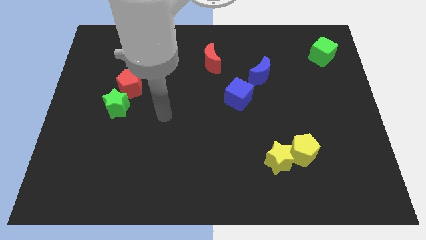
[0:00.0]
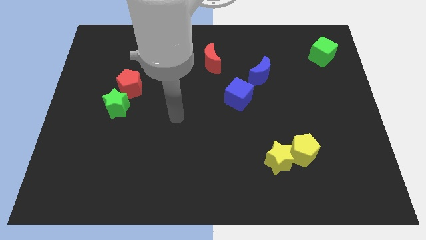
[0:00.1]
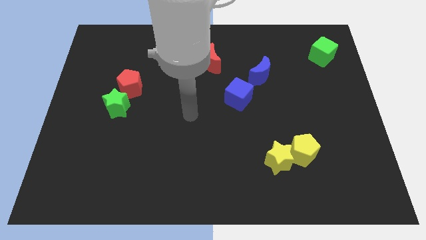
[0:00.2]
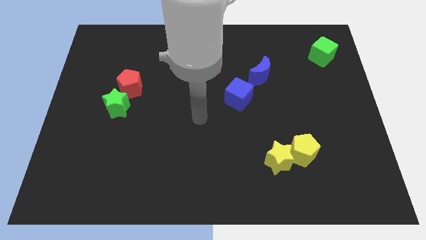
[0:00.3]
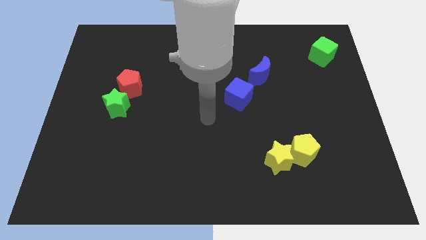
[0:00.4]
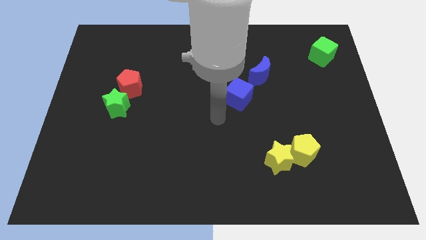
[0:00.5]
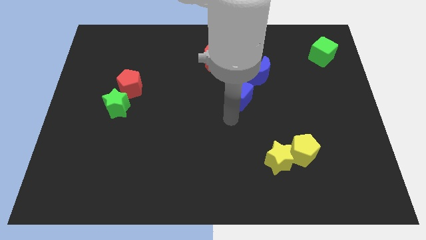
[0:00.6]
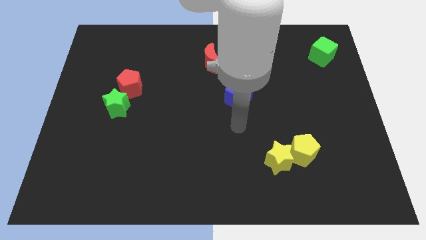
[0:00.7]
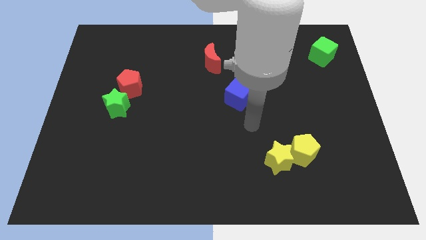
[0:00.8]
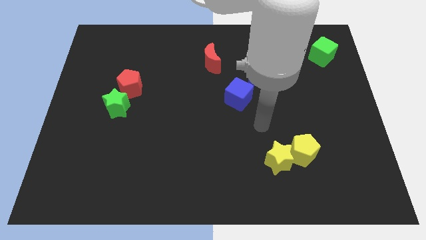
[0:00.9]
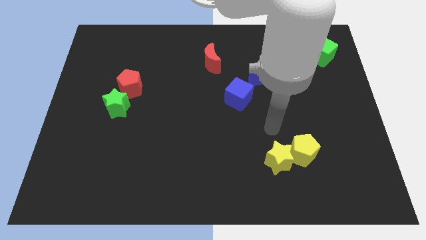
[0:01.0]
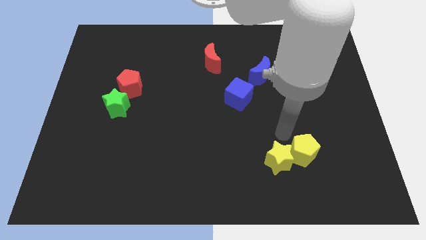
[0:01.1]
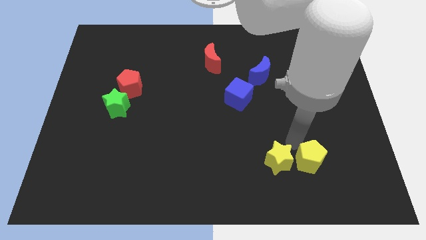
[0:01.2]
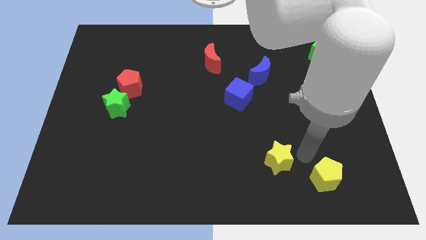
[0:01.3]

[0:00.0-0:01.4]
separate the yellow star from the yellow pentagon

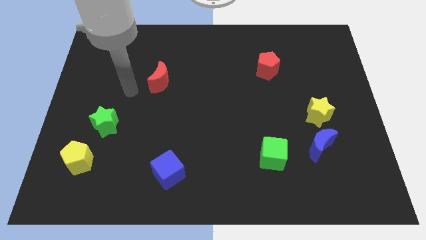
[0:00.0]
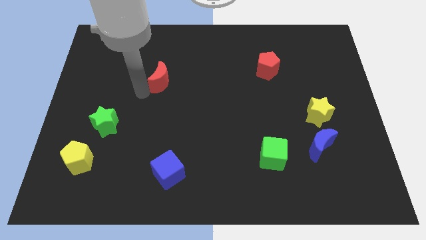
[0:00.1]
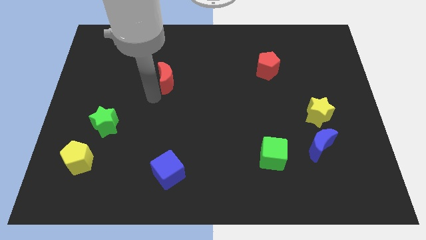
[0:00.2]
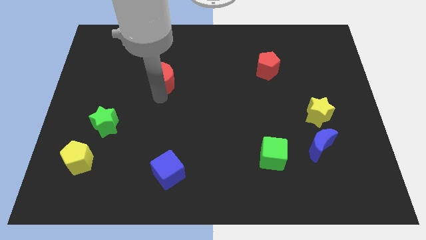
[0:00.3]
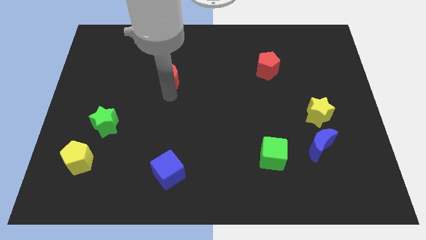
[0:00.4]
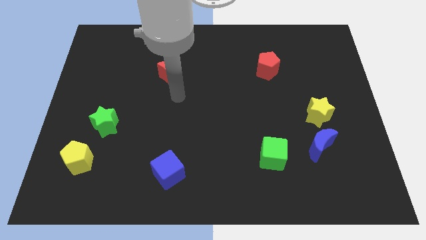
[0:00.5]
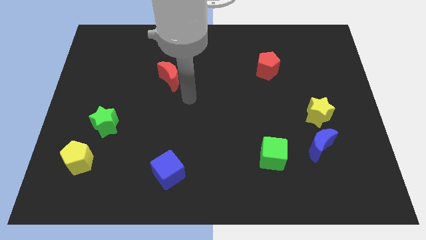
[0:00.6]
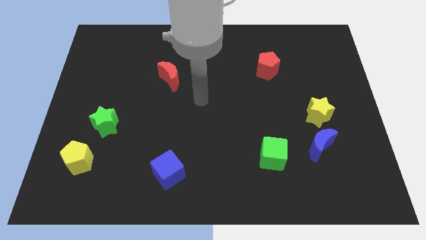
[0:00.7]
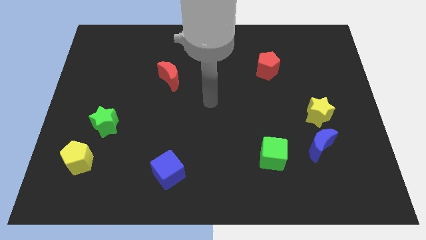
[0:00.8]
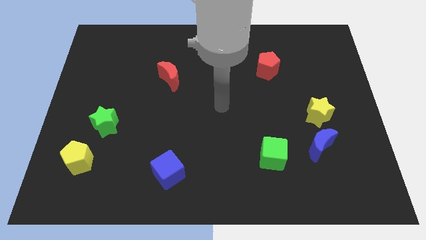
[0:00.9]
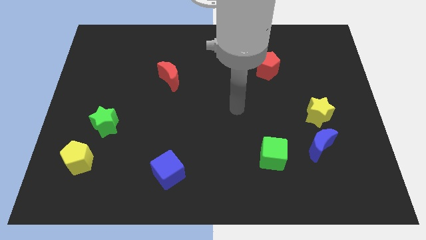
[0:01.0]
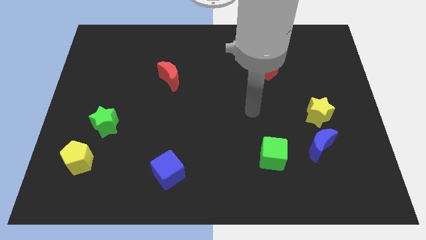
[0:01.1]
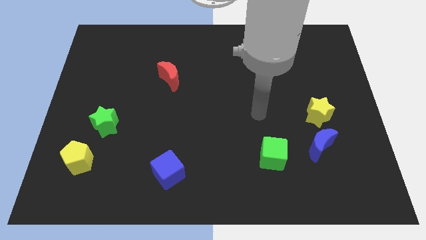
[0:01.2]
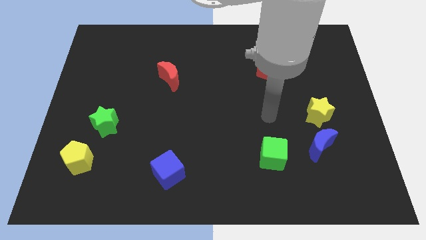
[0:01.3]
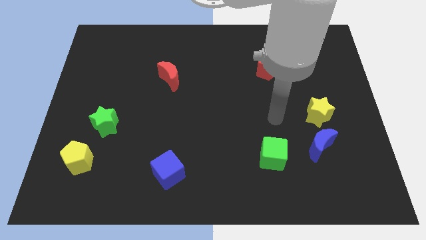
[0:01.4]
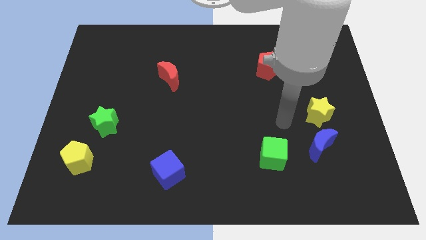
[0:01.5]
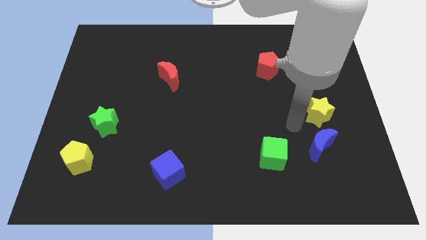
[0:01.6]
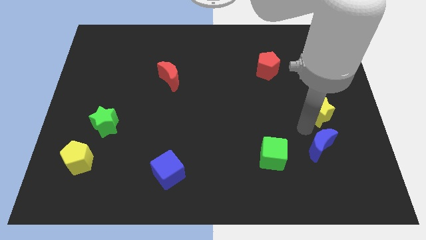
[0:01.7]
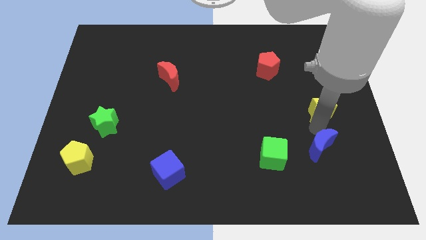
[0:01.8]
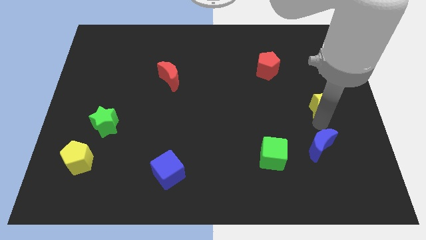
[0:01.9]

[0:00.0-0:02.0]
move the blue moon away from the yellow star

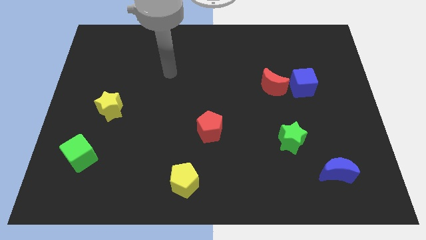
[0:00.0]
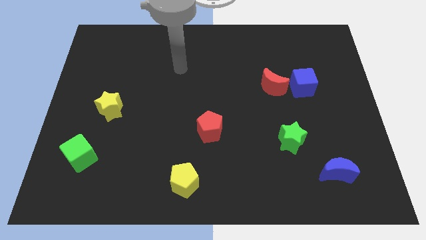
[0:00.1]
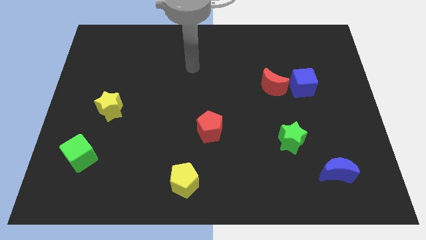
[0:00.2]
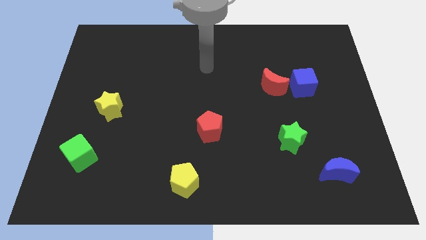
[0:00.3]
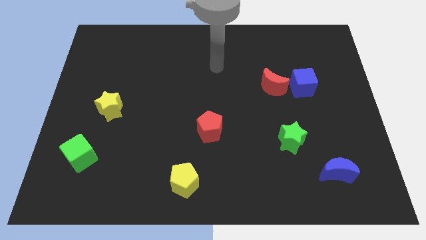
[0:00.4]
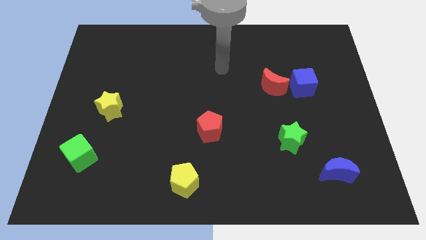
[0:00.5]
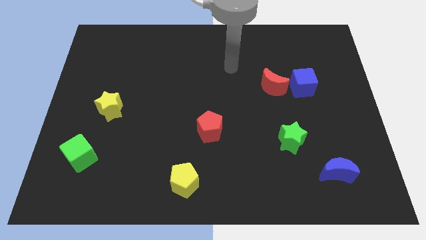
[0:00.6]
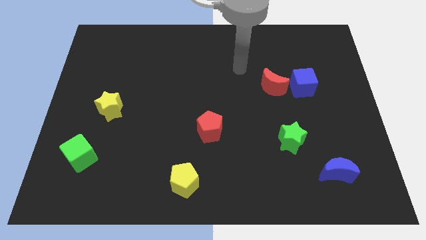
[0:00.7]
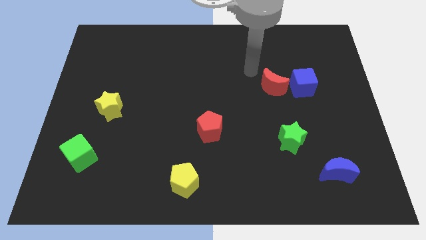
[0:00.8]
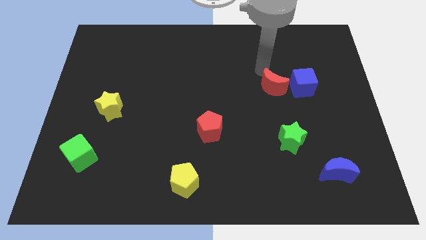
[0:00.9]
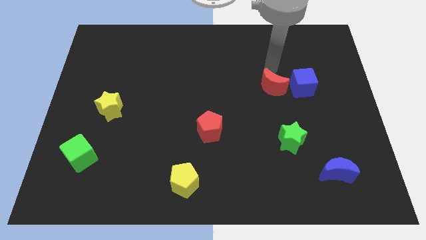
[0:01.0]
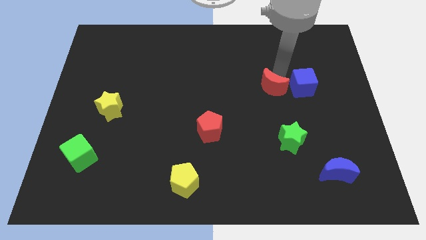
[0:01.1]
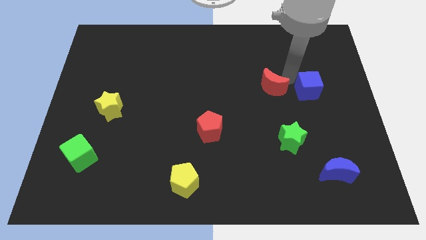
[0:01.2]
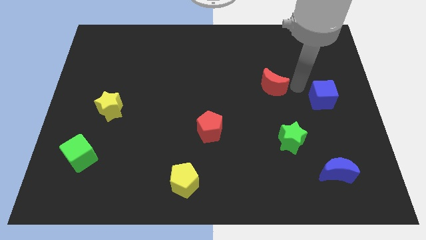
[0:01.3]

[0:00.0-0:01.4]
pull the red moon apart from the blue cube

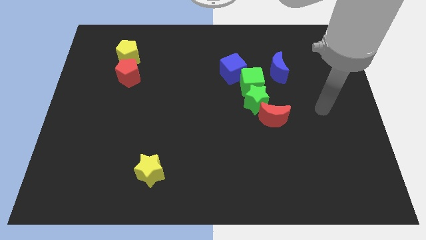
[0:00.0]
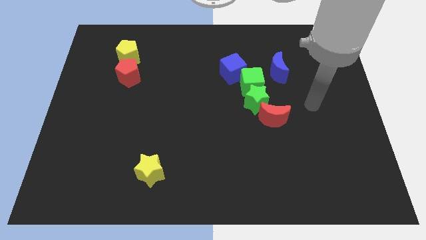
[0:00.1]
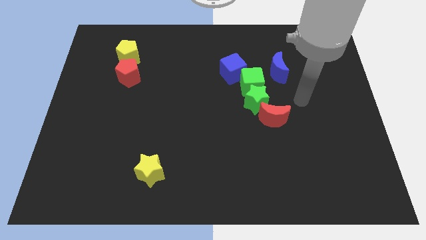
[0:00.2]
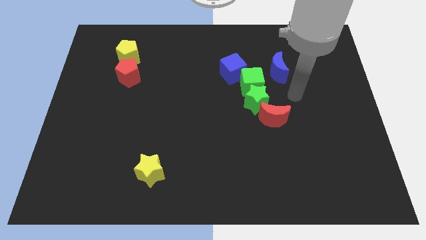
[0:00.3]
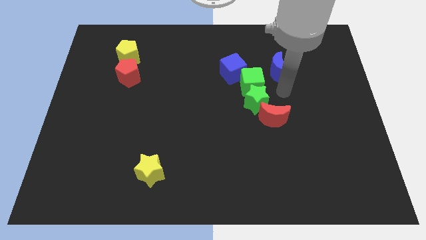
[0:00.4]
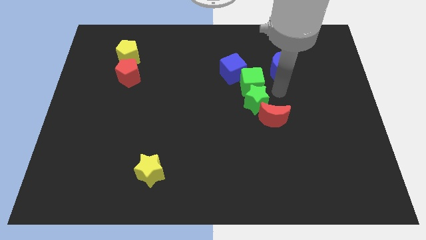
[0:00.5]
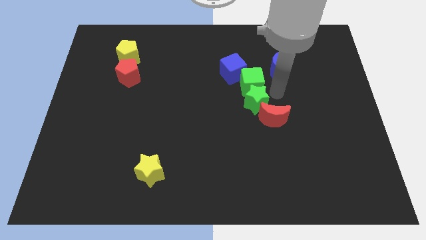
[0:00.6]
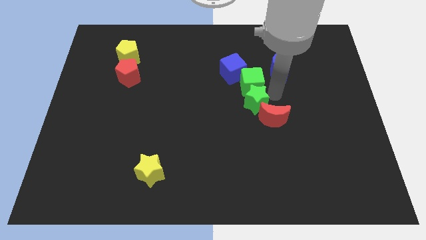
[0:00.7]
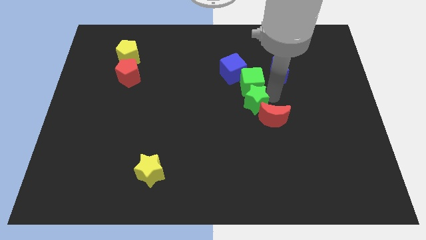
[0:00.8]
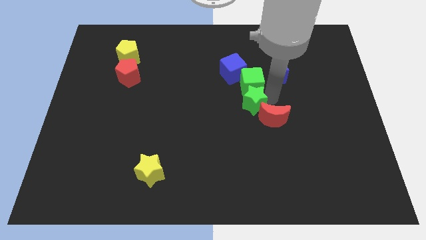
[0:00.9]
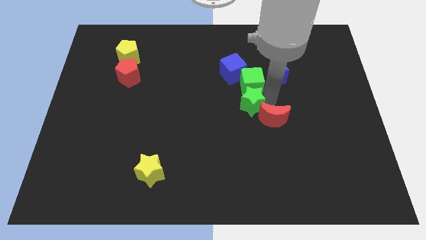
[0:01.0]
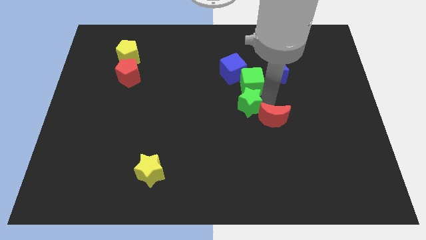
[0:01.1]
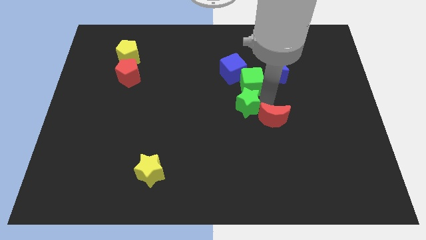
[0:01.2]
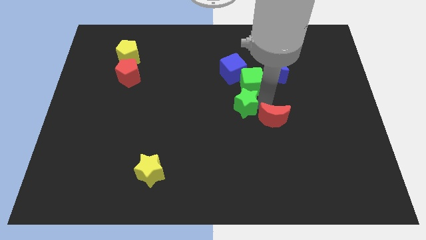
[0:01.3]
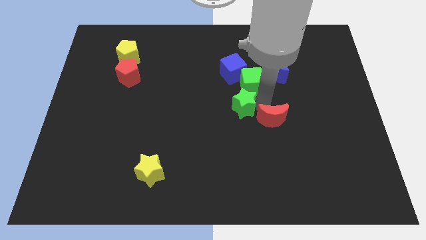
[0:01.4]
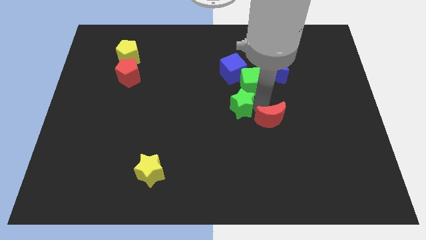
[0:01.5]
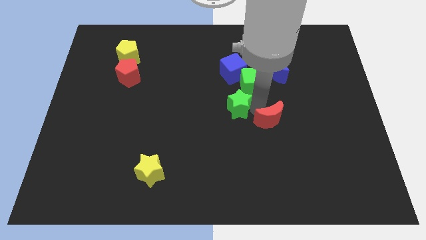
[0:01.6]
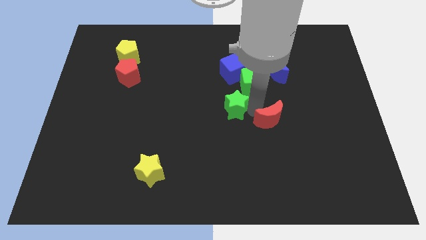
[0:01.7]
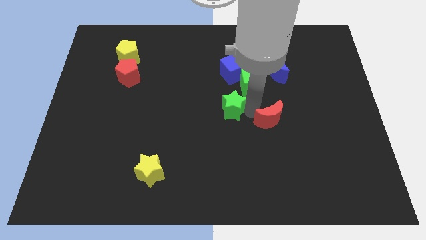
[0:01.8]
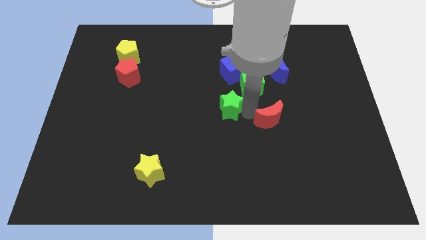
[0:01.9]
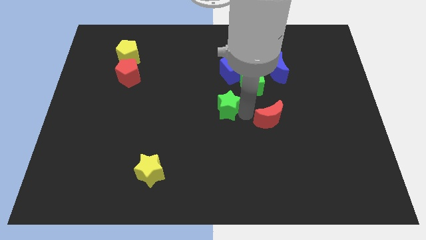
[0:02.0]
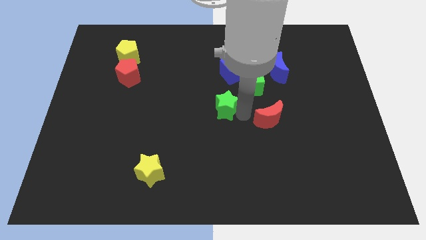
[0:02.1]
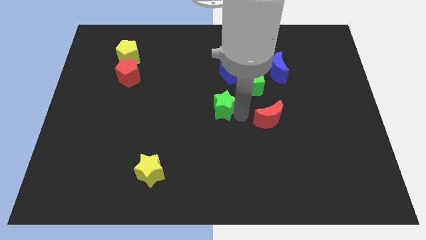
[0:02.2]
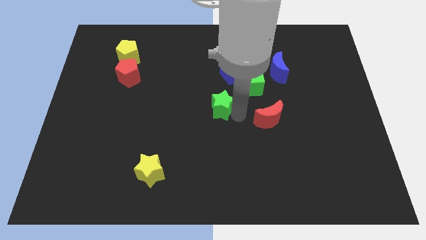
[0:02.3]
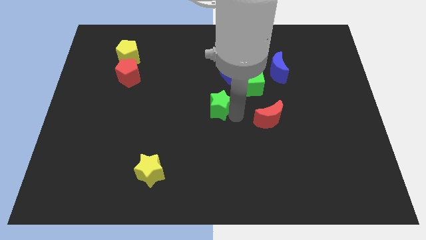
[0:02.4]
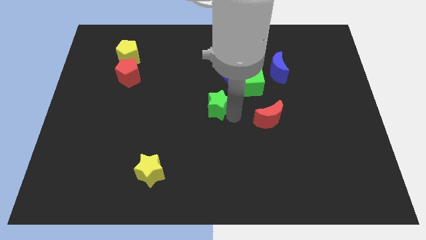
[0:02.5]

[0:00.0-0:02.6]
pull the green star apart from the green cube and red moon

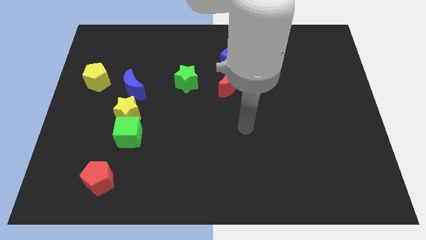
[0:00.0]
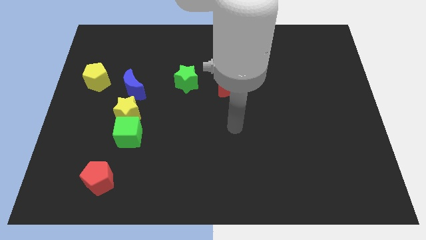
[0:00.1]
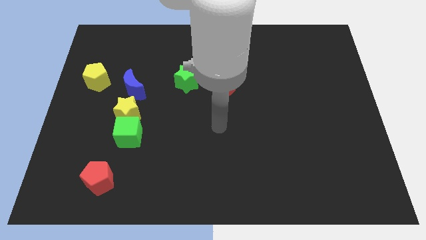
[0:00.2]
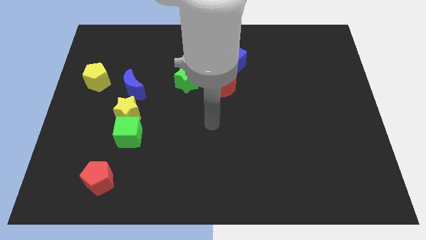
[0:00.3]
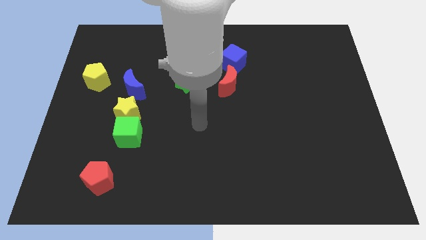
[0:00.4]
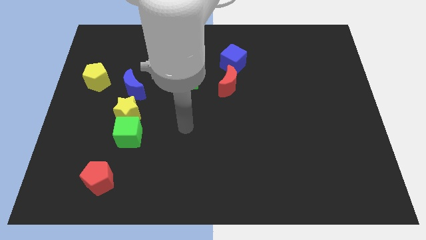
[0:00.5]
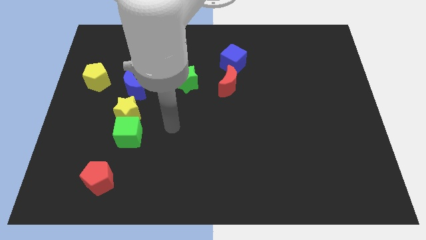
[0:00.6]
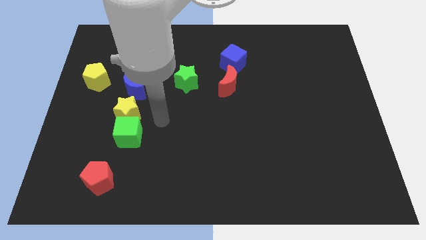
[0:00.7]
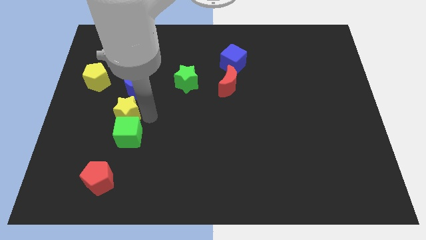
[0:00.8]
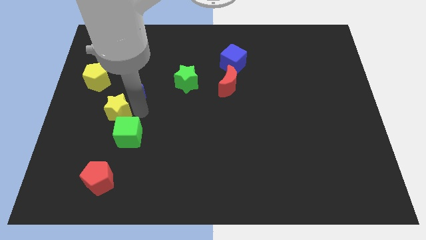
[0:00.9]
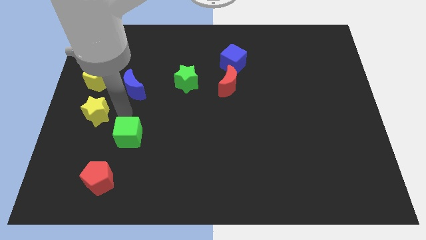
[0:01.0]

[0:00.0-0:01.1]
move the green cube away from the yellow star

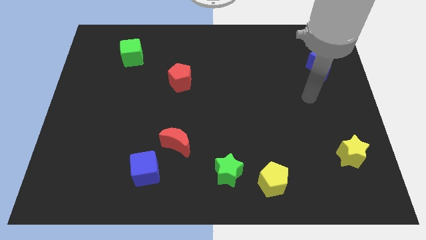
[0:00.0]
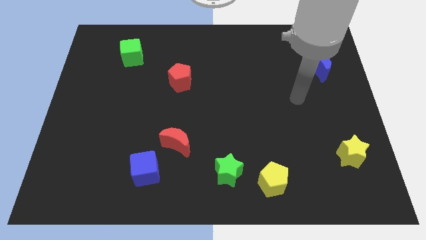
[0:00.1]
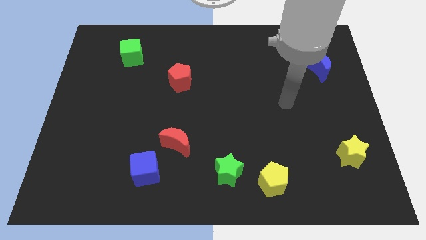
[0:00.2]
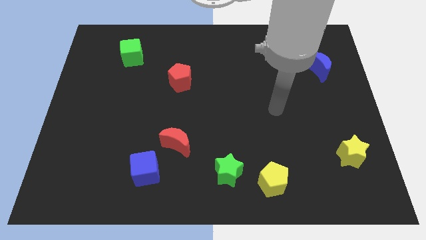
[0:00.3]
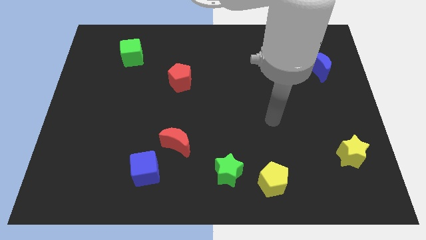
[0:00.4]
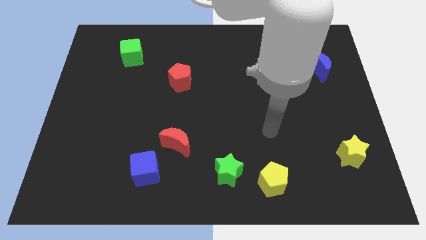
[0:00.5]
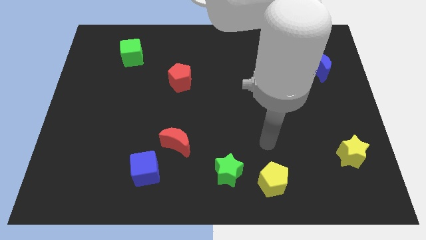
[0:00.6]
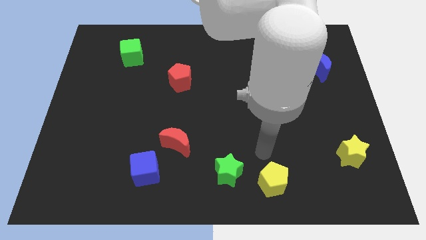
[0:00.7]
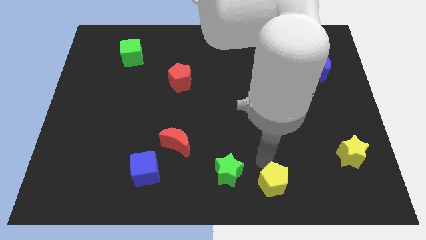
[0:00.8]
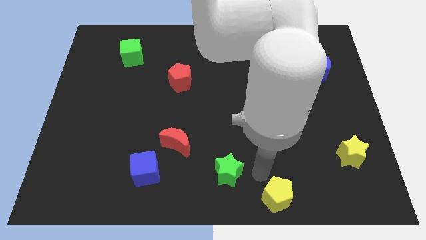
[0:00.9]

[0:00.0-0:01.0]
pull the green star apart from the yellow pentagon
